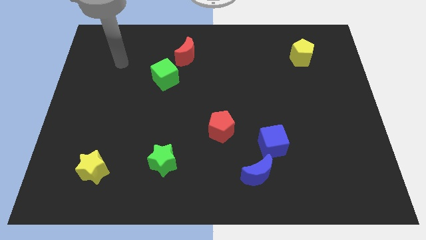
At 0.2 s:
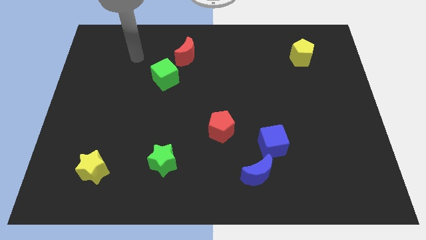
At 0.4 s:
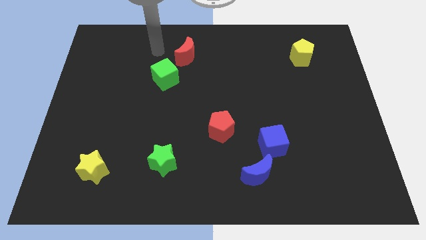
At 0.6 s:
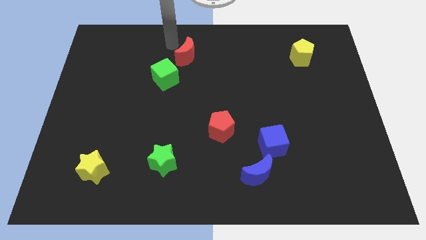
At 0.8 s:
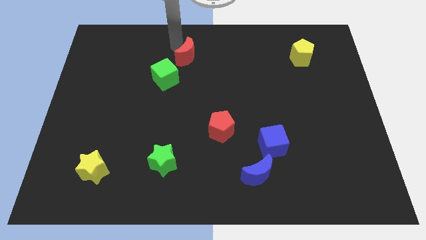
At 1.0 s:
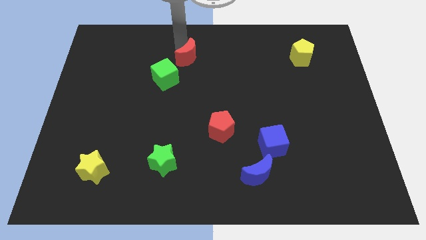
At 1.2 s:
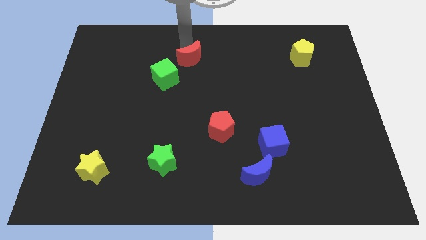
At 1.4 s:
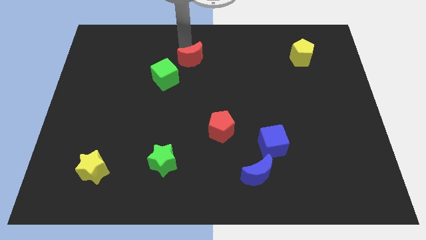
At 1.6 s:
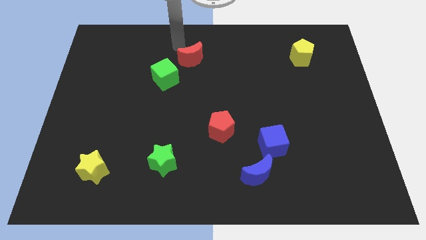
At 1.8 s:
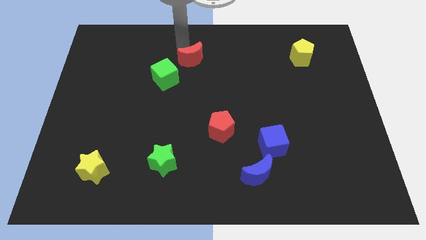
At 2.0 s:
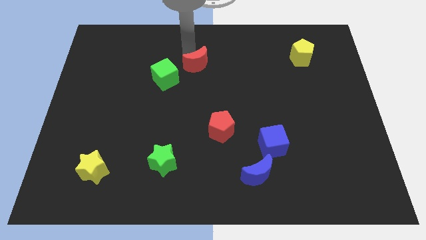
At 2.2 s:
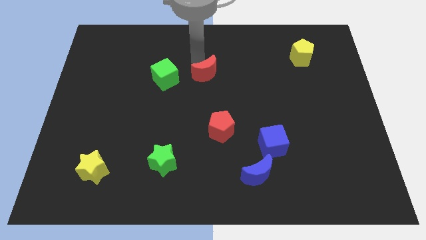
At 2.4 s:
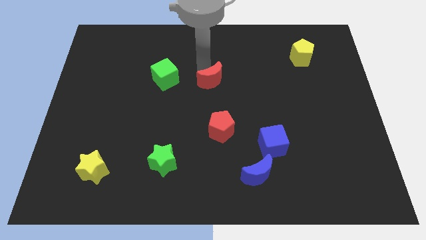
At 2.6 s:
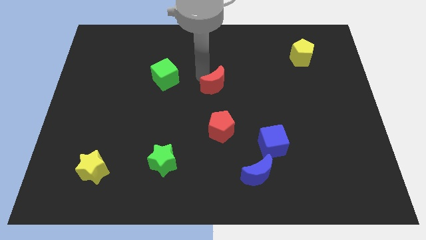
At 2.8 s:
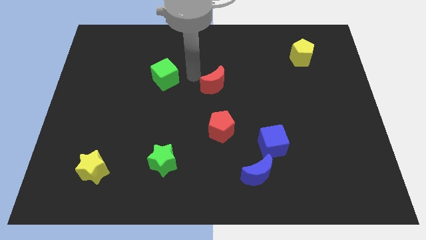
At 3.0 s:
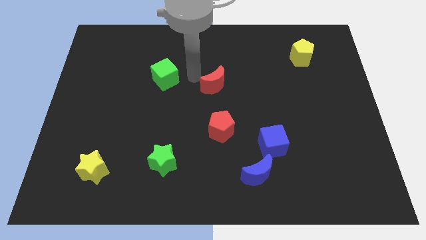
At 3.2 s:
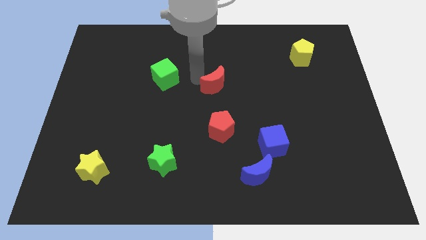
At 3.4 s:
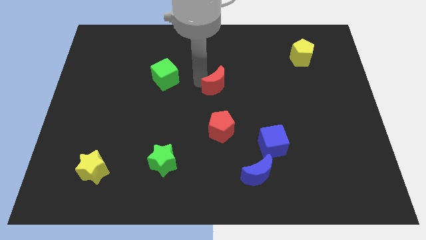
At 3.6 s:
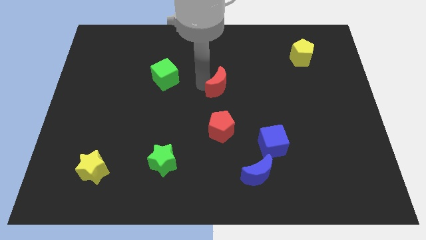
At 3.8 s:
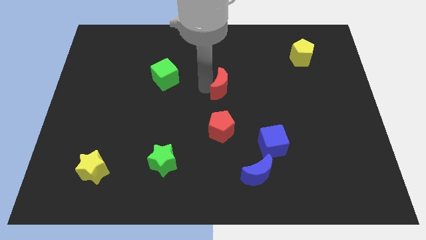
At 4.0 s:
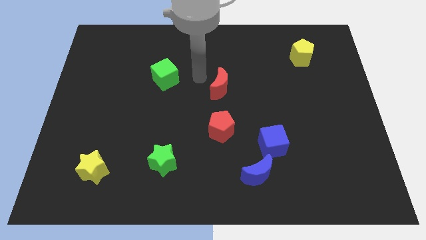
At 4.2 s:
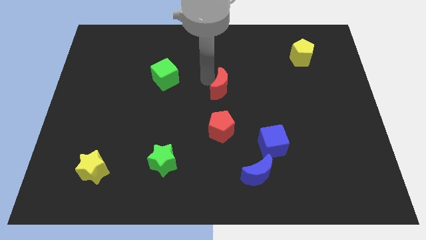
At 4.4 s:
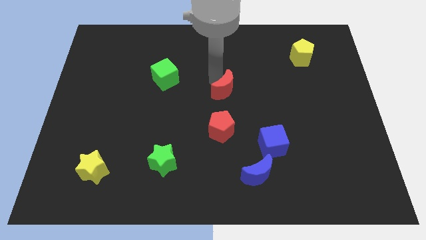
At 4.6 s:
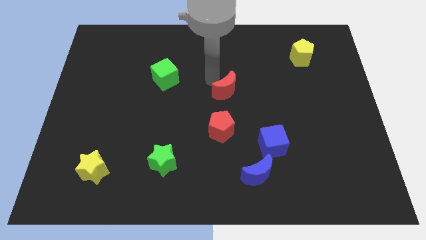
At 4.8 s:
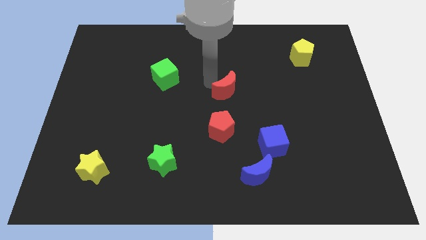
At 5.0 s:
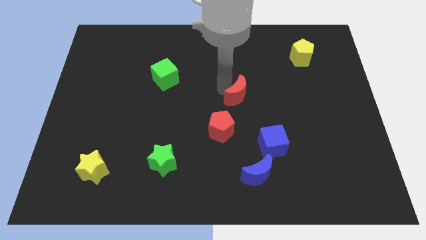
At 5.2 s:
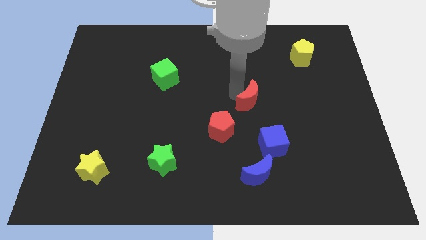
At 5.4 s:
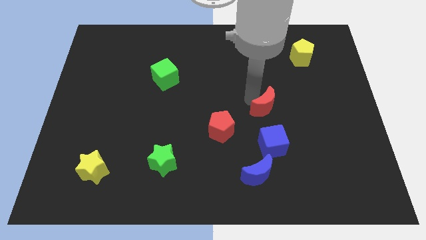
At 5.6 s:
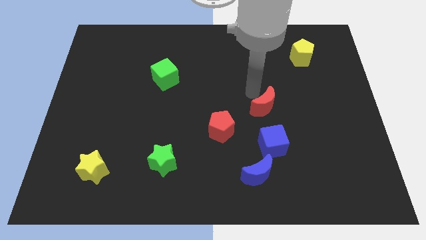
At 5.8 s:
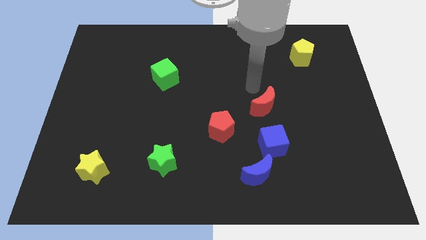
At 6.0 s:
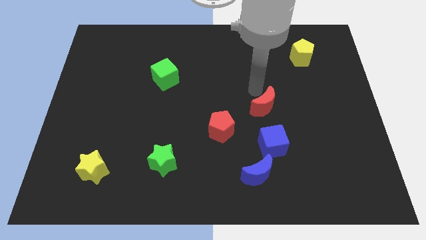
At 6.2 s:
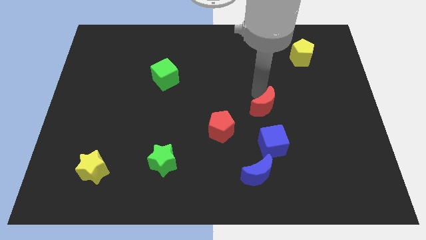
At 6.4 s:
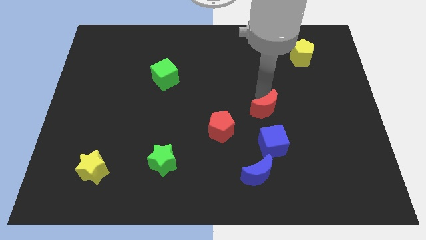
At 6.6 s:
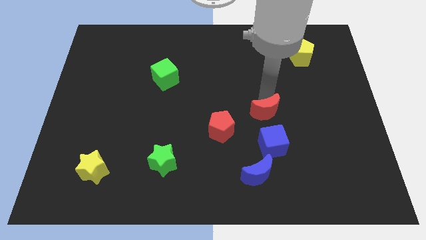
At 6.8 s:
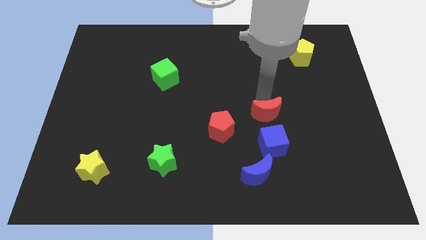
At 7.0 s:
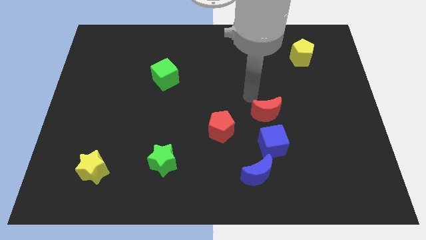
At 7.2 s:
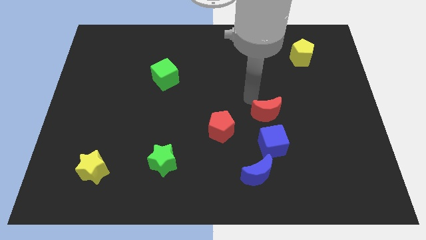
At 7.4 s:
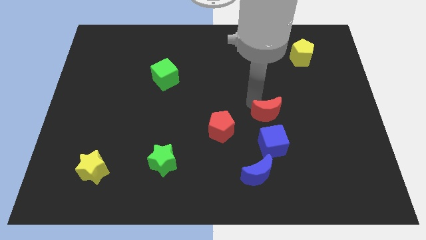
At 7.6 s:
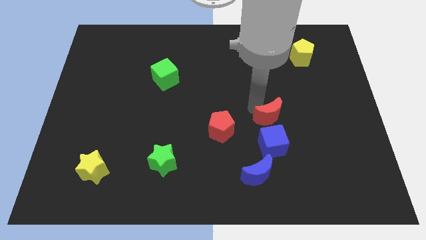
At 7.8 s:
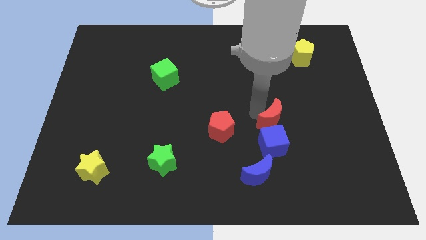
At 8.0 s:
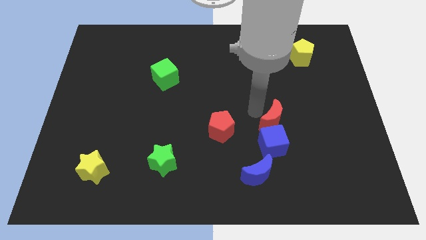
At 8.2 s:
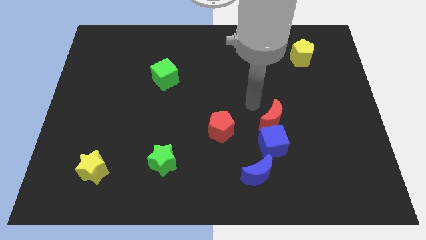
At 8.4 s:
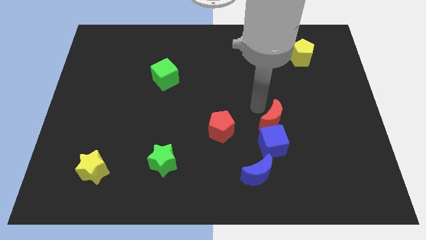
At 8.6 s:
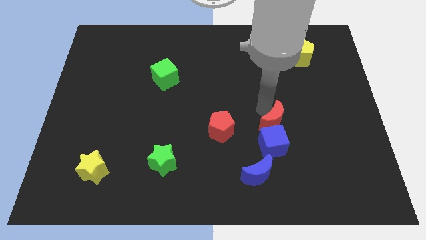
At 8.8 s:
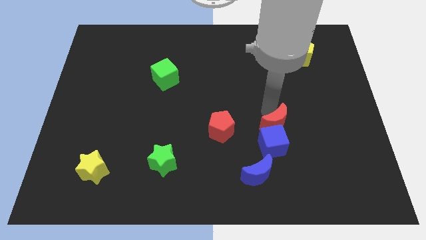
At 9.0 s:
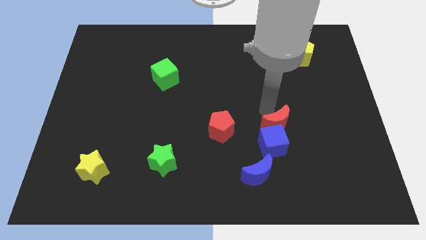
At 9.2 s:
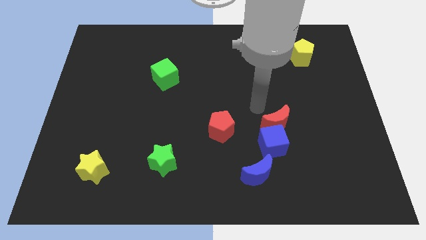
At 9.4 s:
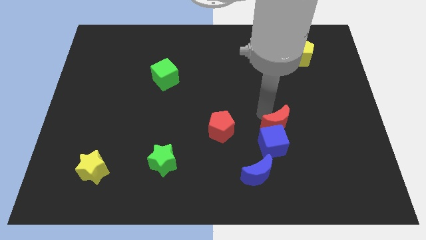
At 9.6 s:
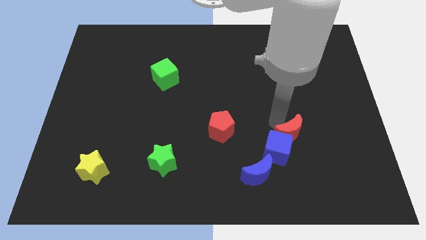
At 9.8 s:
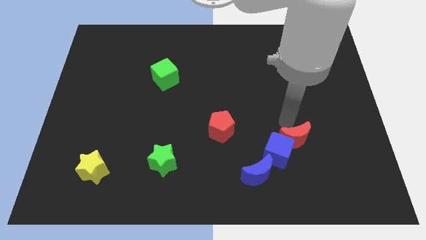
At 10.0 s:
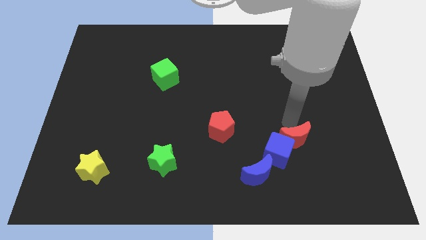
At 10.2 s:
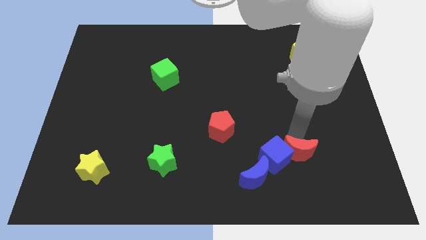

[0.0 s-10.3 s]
push the red moon to the bottom right side of the blue cube

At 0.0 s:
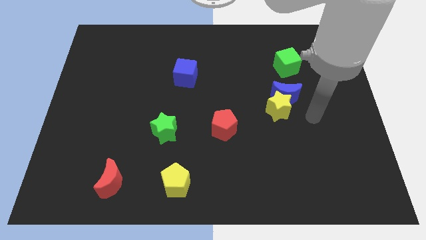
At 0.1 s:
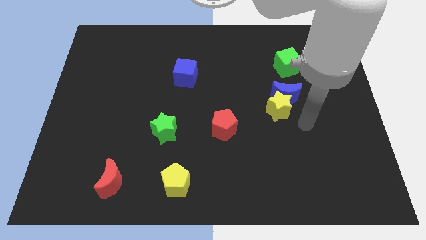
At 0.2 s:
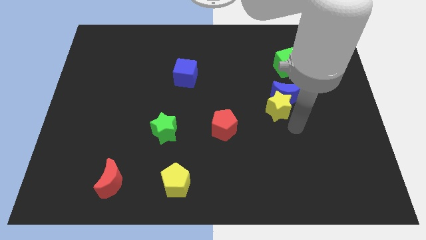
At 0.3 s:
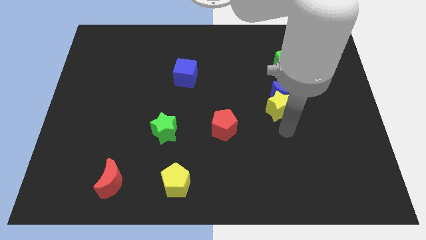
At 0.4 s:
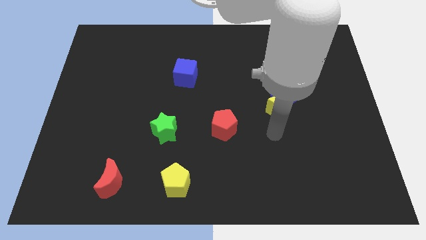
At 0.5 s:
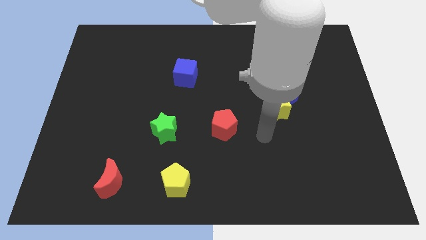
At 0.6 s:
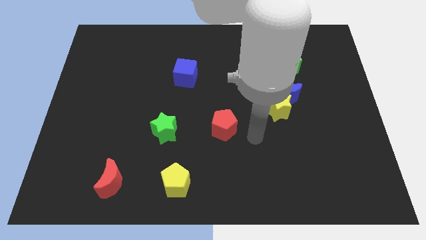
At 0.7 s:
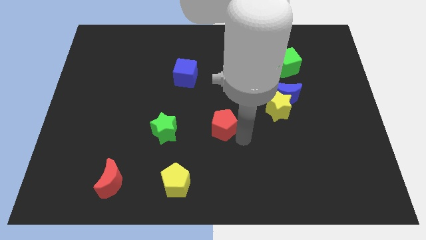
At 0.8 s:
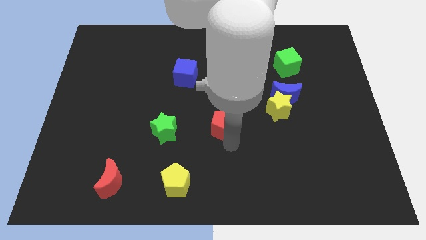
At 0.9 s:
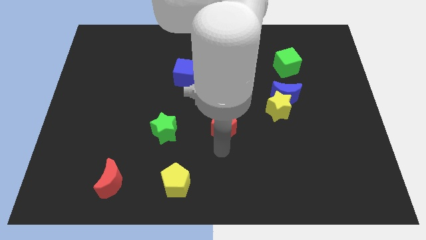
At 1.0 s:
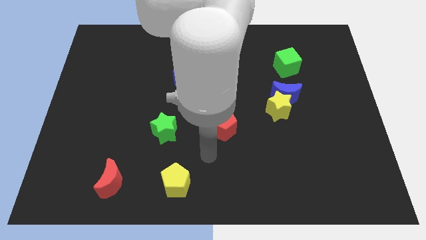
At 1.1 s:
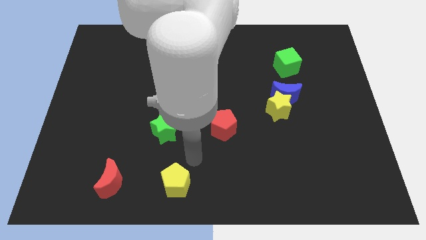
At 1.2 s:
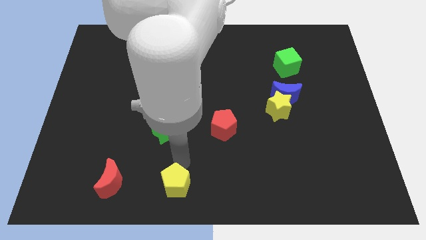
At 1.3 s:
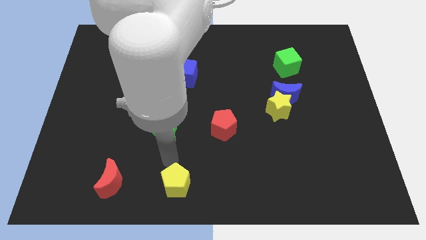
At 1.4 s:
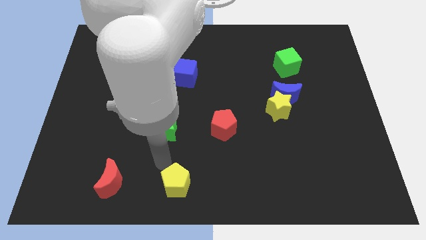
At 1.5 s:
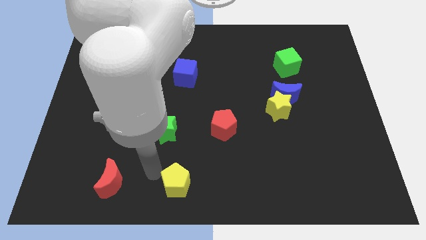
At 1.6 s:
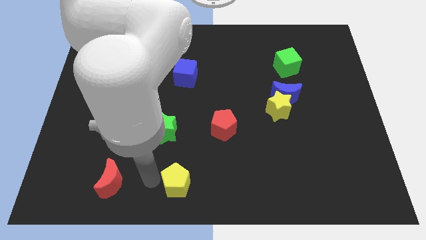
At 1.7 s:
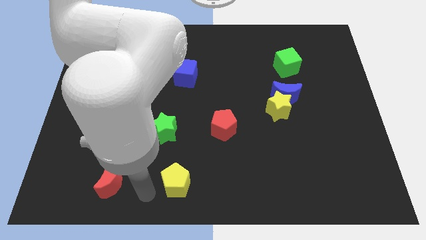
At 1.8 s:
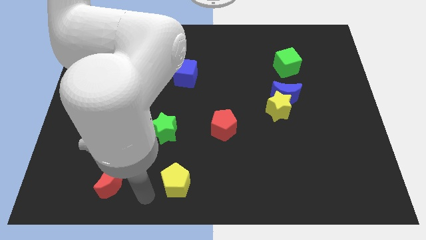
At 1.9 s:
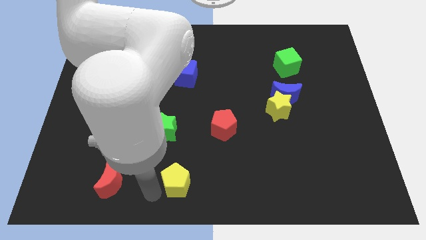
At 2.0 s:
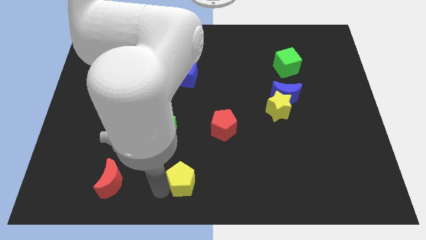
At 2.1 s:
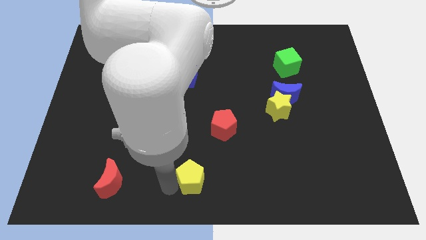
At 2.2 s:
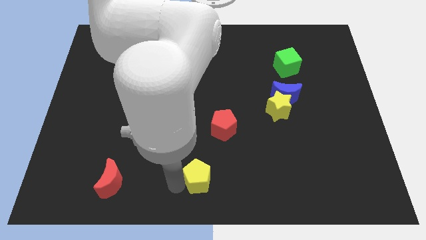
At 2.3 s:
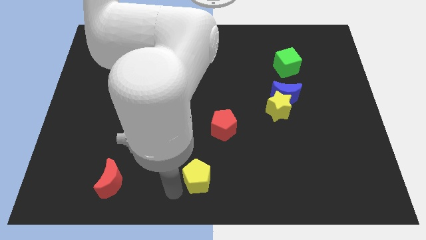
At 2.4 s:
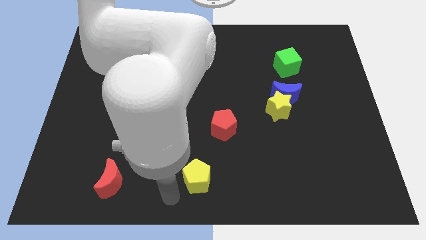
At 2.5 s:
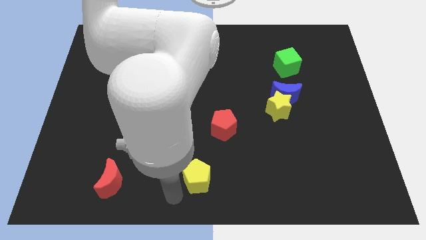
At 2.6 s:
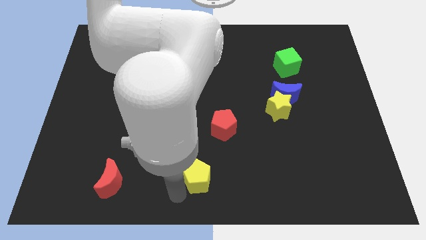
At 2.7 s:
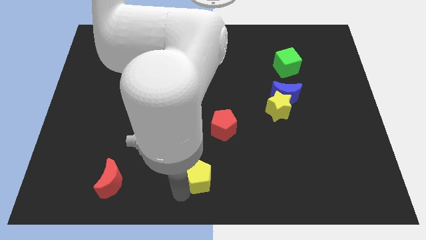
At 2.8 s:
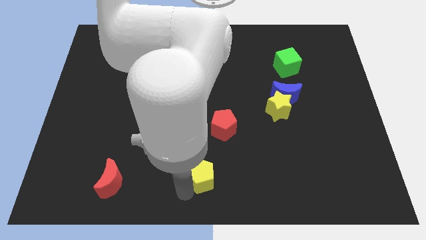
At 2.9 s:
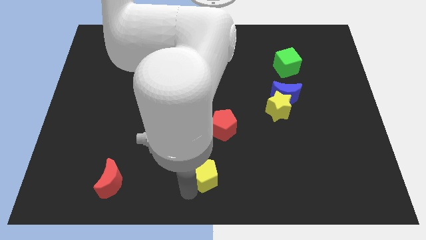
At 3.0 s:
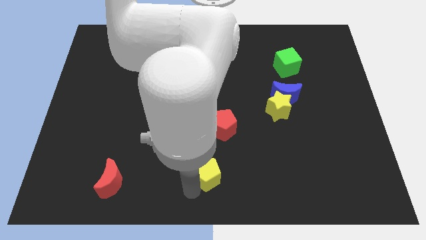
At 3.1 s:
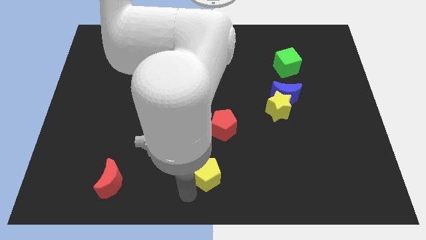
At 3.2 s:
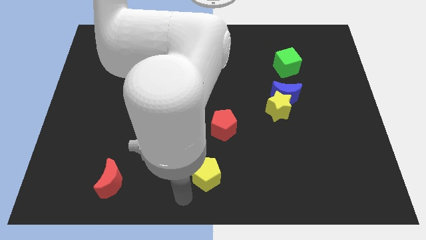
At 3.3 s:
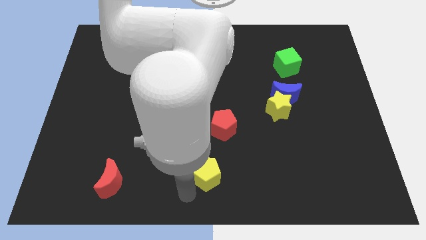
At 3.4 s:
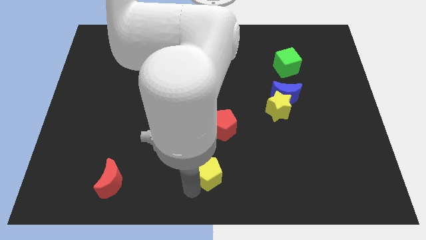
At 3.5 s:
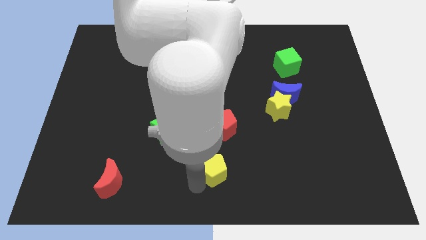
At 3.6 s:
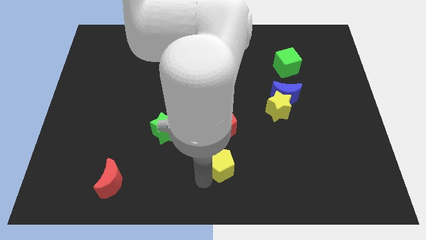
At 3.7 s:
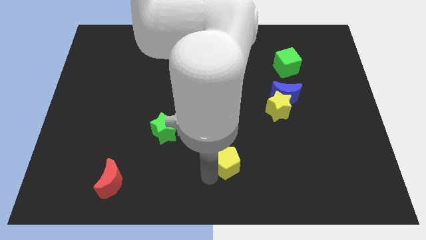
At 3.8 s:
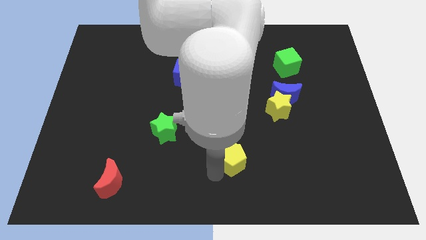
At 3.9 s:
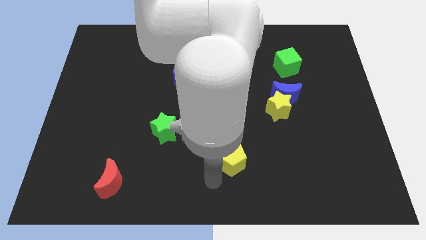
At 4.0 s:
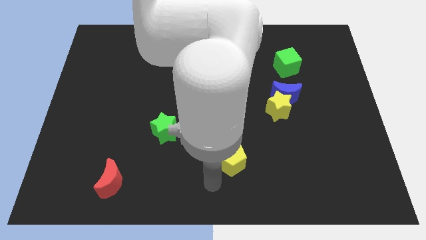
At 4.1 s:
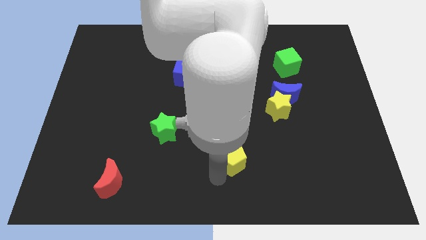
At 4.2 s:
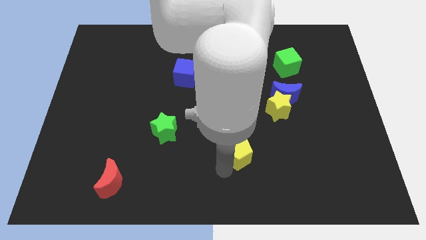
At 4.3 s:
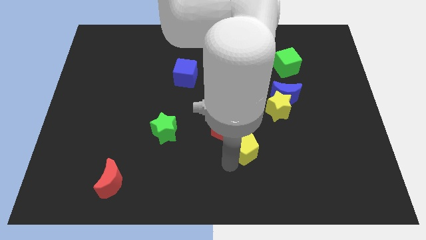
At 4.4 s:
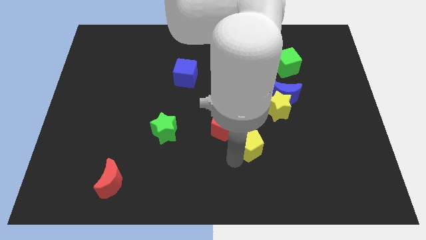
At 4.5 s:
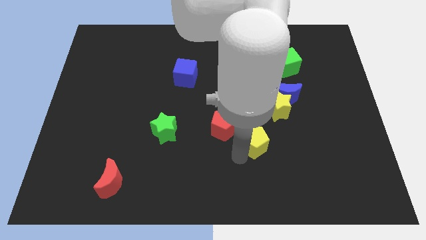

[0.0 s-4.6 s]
move the yellow pentagon to the right side of the red pentagon
